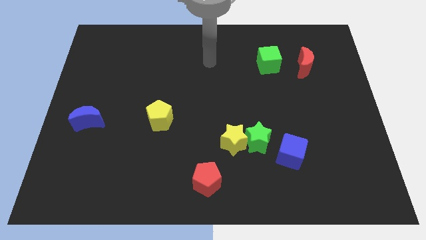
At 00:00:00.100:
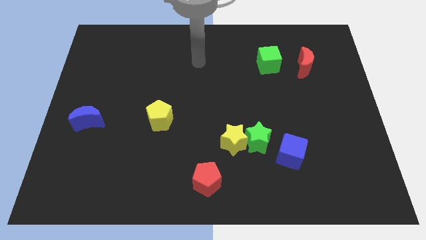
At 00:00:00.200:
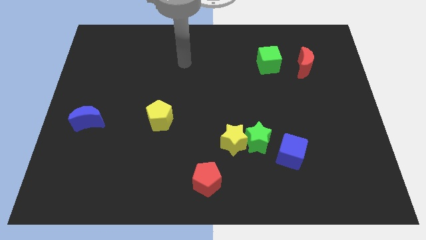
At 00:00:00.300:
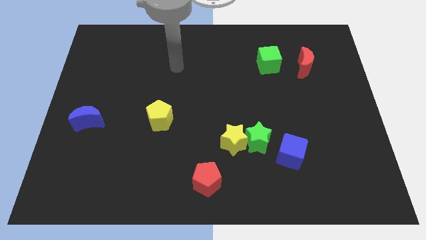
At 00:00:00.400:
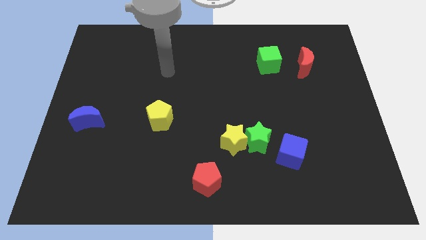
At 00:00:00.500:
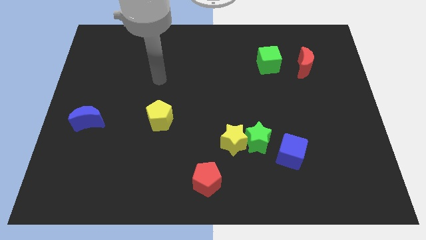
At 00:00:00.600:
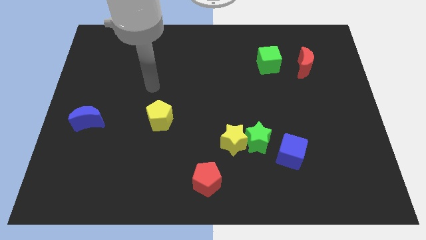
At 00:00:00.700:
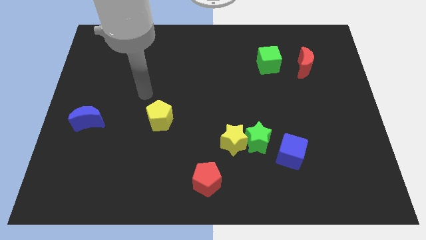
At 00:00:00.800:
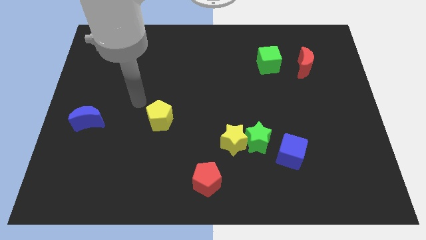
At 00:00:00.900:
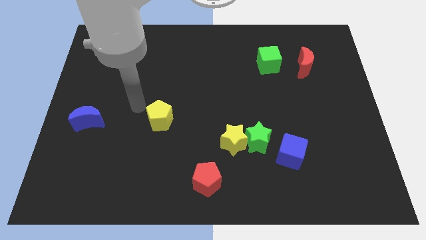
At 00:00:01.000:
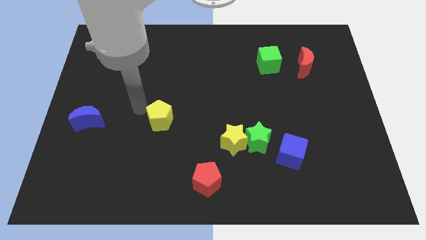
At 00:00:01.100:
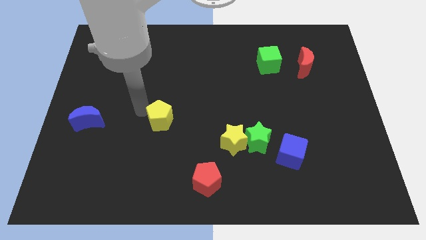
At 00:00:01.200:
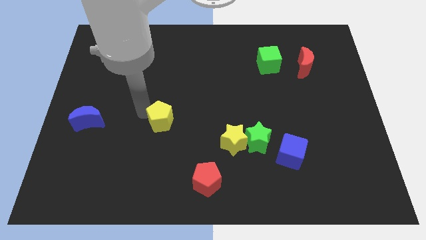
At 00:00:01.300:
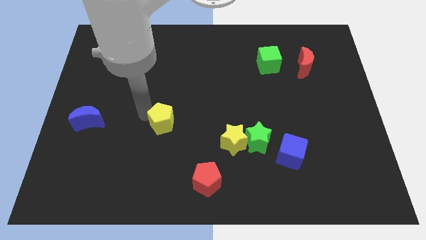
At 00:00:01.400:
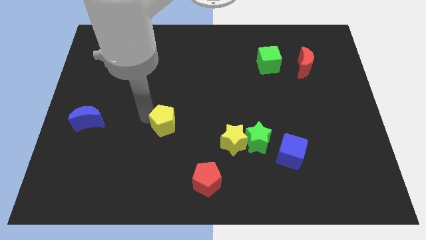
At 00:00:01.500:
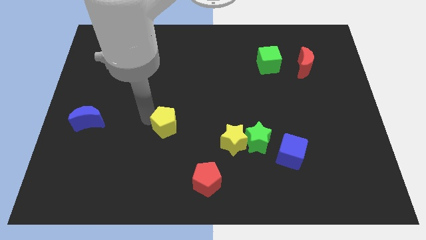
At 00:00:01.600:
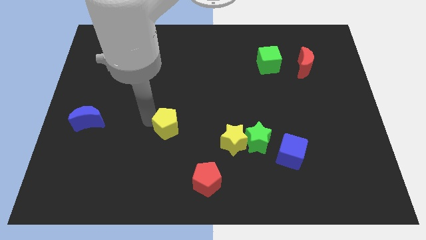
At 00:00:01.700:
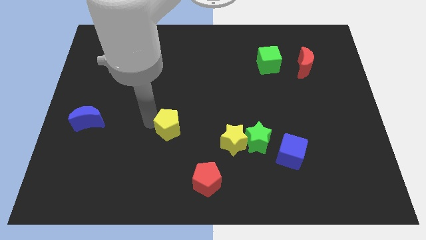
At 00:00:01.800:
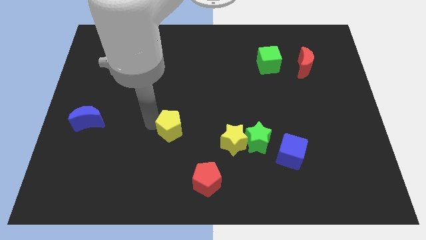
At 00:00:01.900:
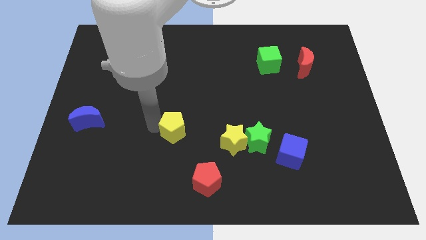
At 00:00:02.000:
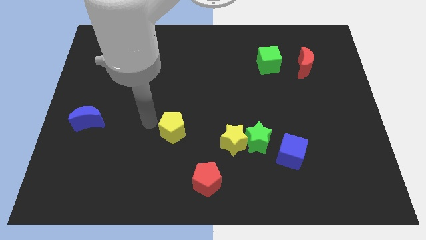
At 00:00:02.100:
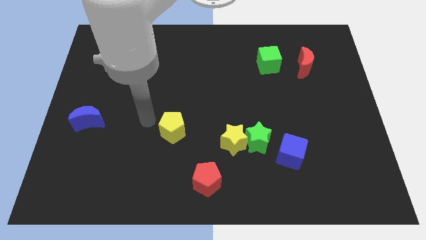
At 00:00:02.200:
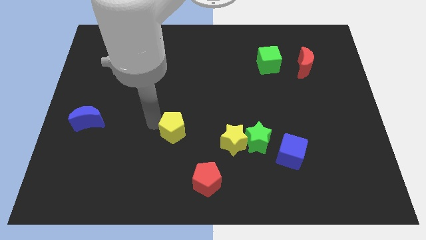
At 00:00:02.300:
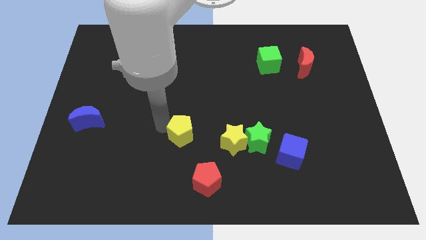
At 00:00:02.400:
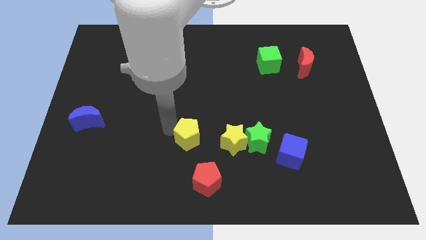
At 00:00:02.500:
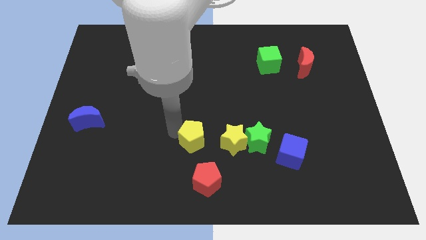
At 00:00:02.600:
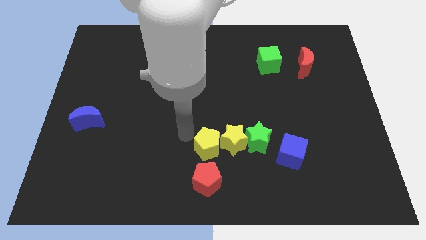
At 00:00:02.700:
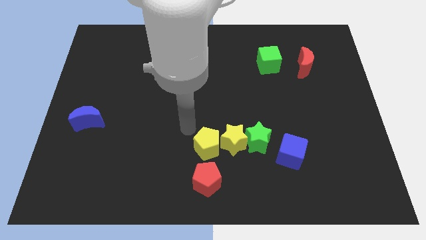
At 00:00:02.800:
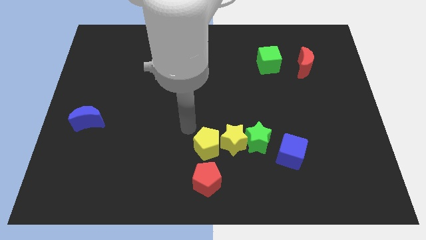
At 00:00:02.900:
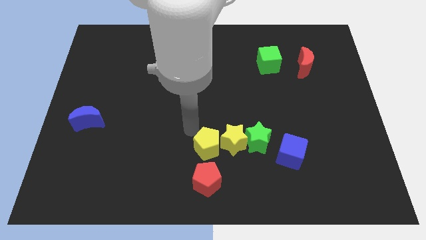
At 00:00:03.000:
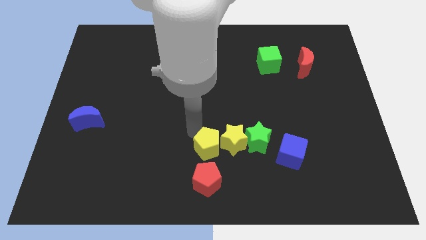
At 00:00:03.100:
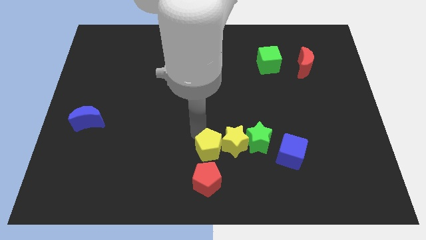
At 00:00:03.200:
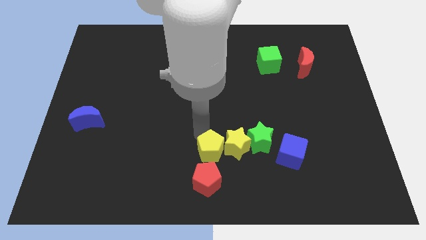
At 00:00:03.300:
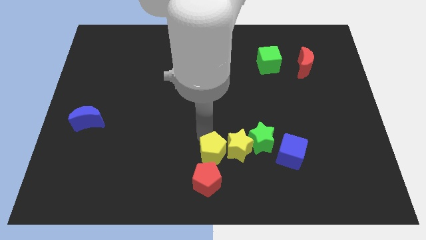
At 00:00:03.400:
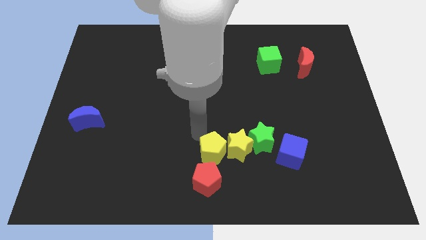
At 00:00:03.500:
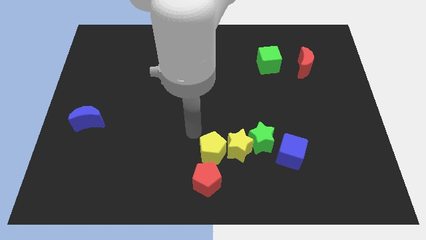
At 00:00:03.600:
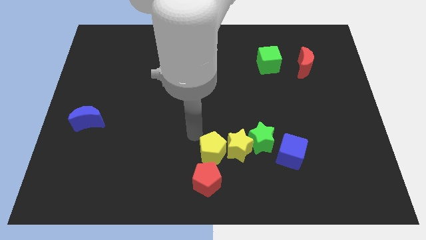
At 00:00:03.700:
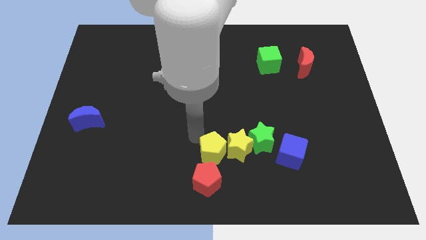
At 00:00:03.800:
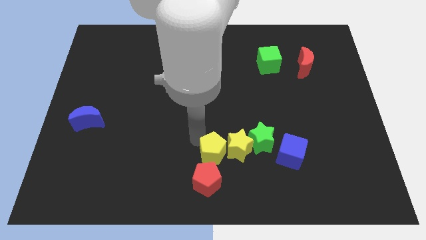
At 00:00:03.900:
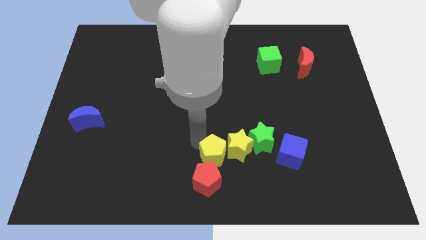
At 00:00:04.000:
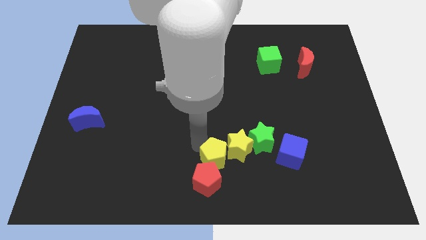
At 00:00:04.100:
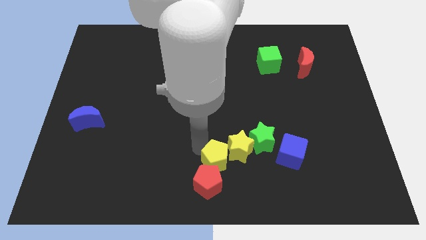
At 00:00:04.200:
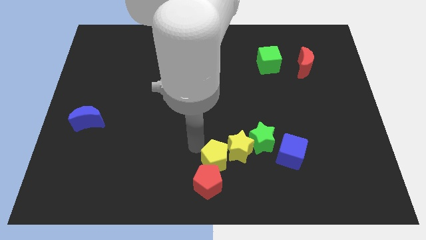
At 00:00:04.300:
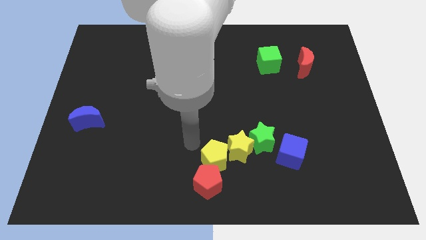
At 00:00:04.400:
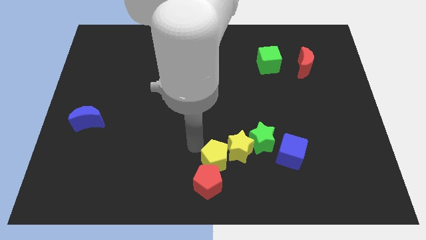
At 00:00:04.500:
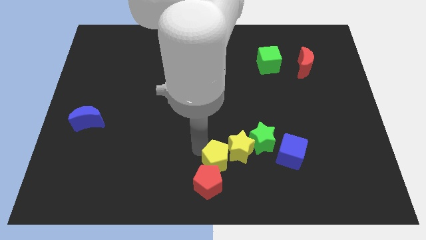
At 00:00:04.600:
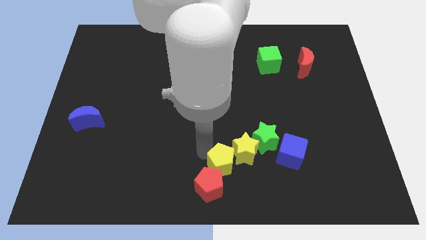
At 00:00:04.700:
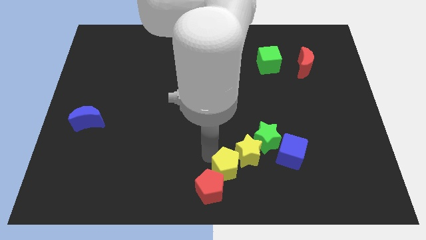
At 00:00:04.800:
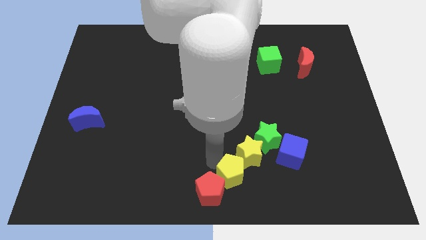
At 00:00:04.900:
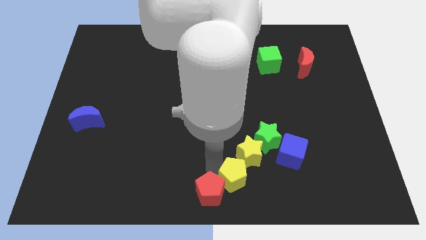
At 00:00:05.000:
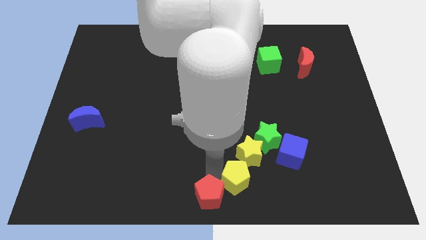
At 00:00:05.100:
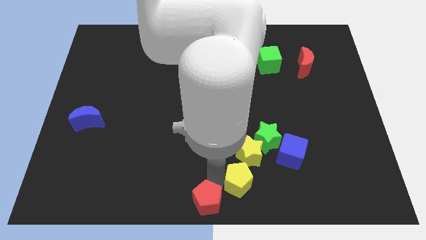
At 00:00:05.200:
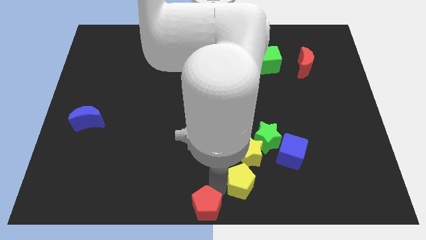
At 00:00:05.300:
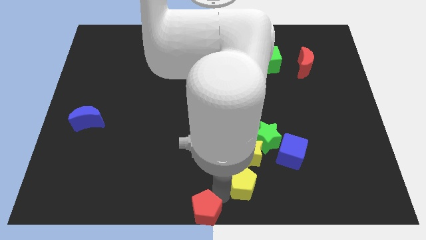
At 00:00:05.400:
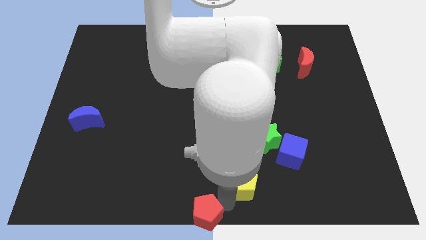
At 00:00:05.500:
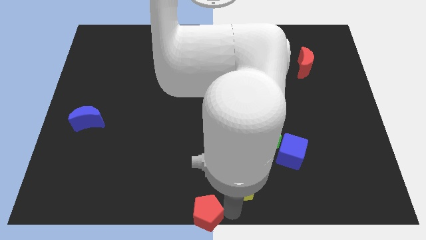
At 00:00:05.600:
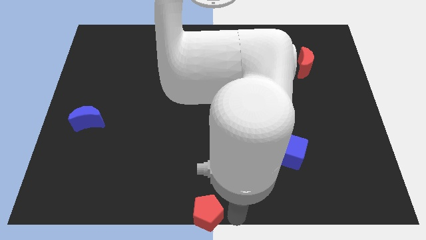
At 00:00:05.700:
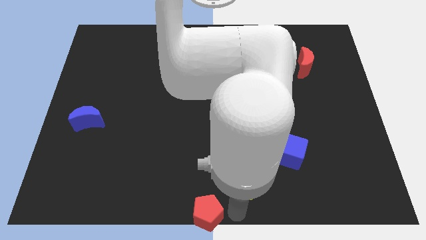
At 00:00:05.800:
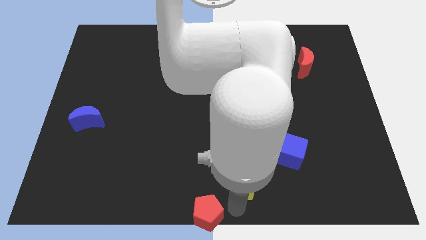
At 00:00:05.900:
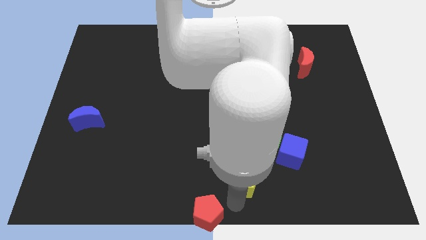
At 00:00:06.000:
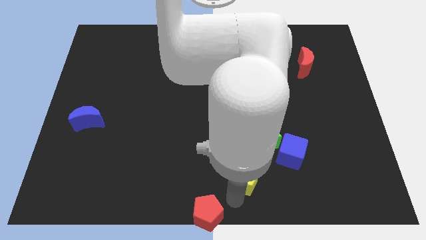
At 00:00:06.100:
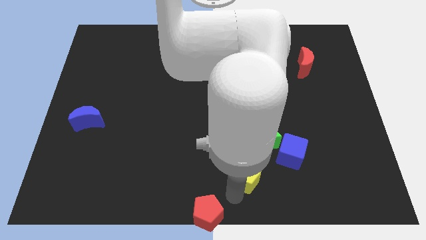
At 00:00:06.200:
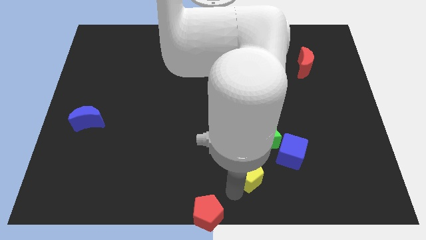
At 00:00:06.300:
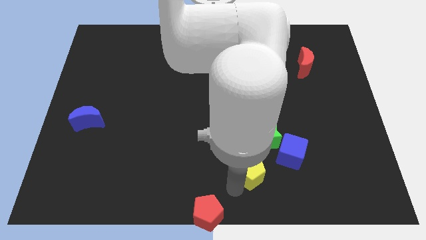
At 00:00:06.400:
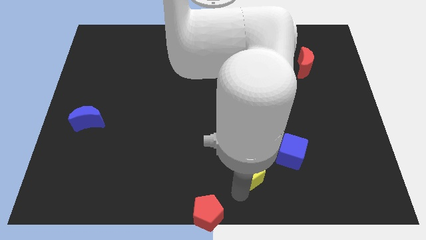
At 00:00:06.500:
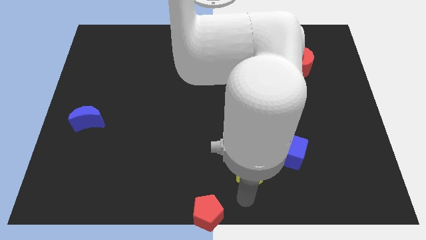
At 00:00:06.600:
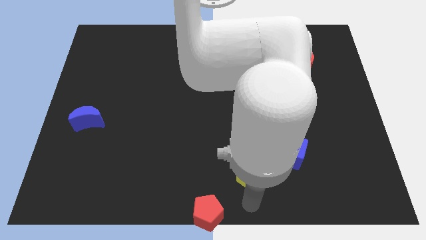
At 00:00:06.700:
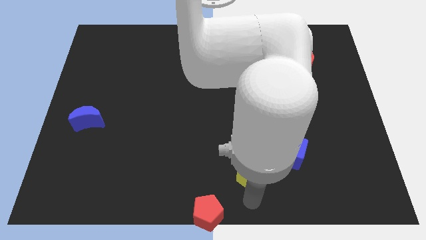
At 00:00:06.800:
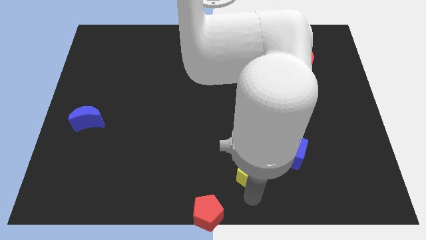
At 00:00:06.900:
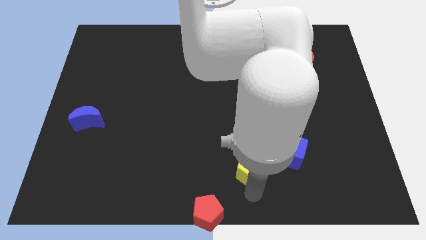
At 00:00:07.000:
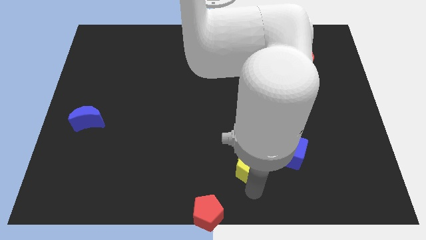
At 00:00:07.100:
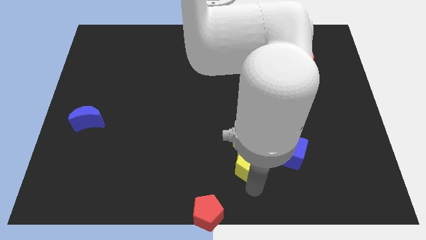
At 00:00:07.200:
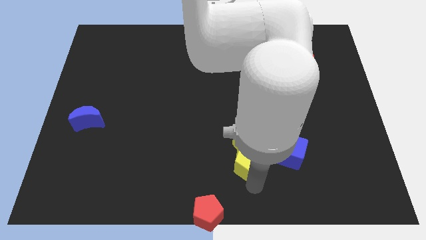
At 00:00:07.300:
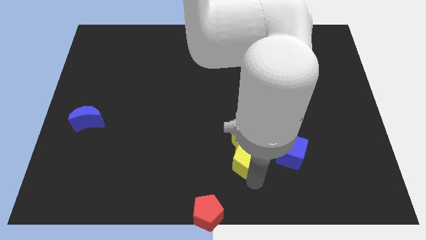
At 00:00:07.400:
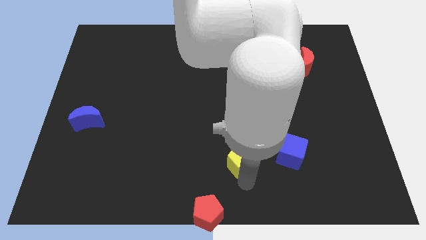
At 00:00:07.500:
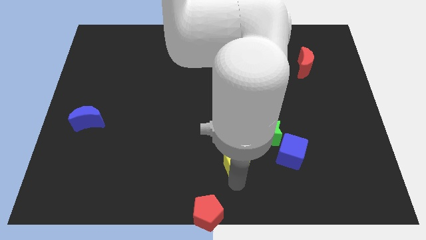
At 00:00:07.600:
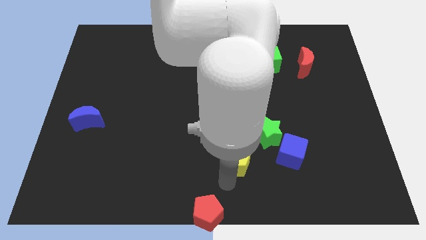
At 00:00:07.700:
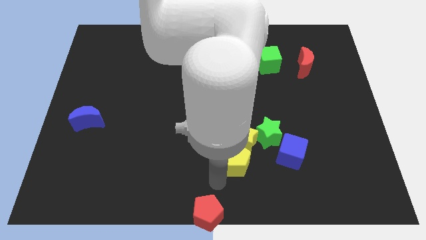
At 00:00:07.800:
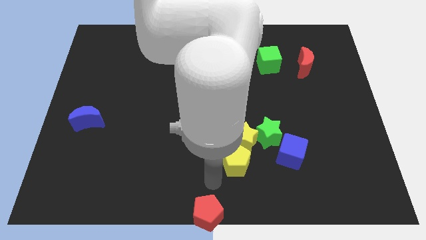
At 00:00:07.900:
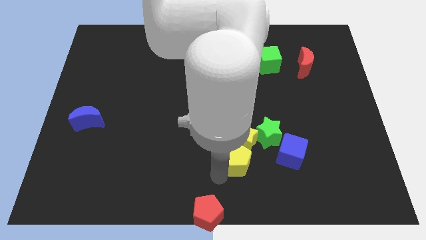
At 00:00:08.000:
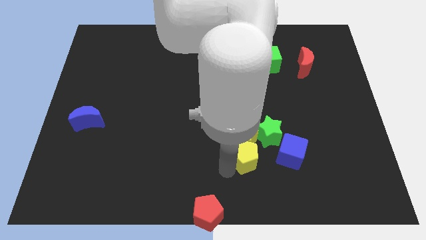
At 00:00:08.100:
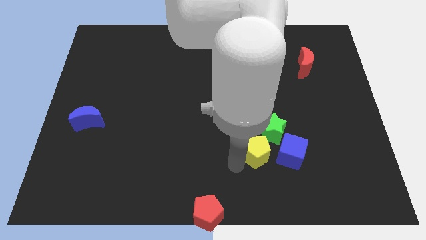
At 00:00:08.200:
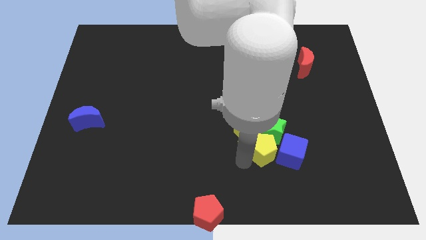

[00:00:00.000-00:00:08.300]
put the yellow pentagon close to the green star
